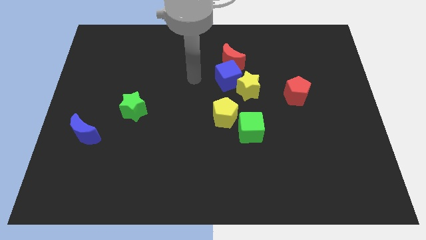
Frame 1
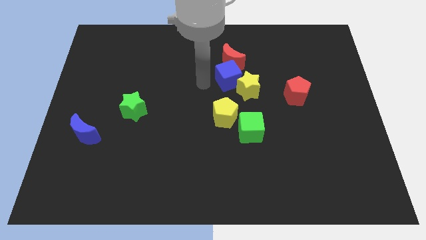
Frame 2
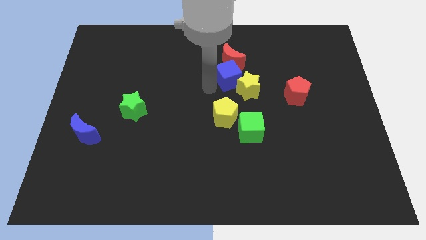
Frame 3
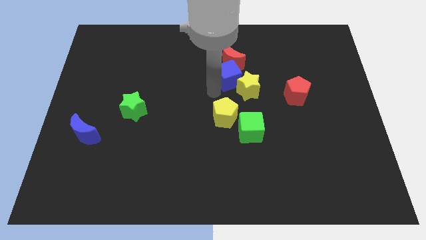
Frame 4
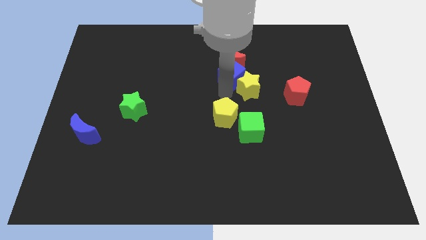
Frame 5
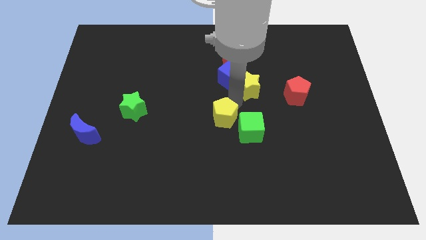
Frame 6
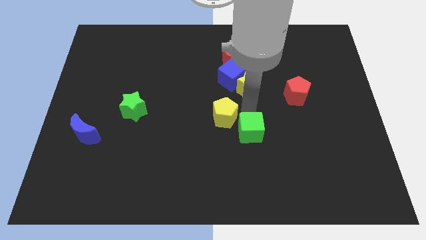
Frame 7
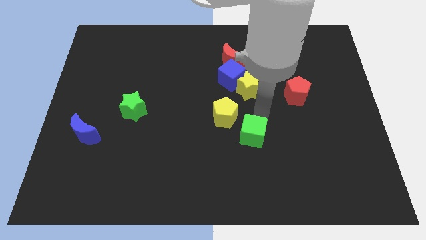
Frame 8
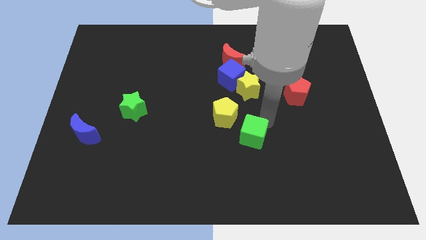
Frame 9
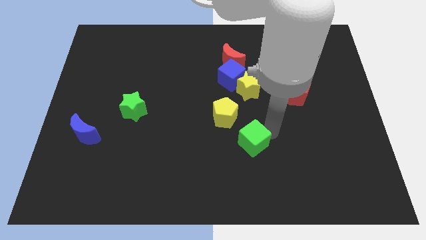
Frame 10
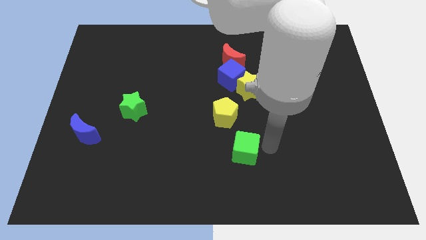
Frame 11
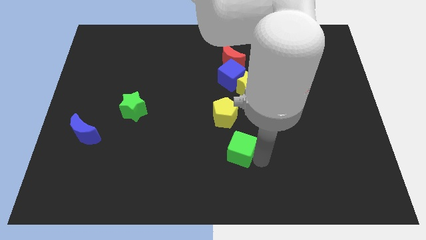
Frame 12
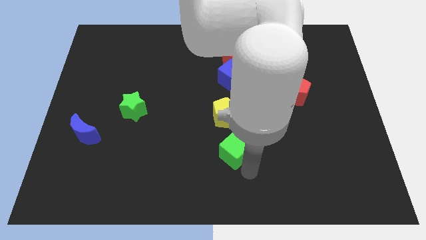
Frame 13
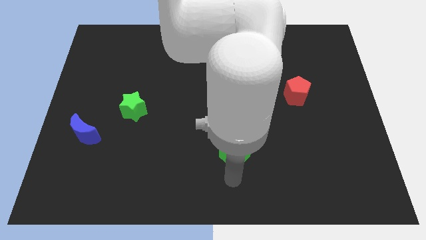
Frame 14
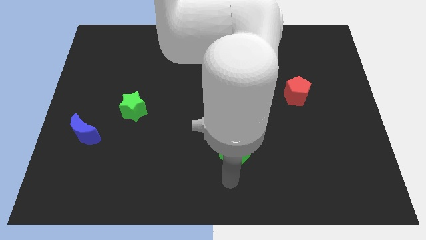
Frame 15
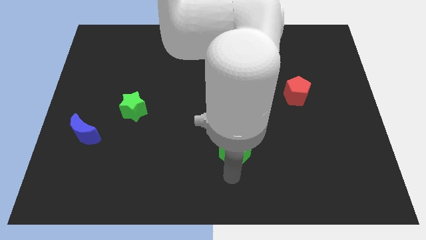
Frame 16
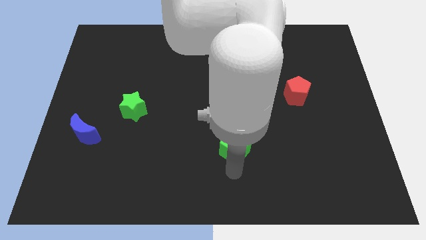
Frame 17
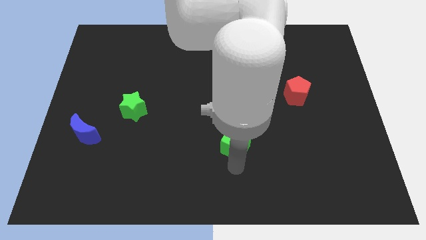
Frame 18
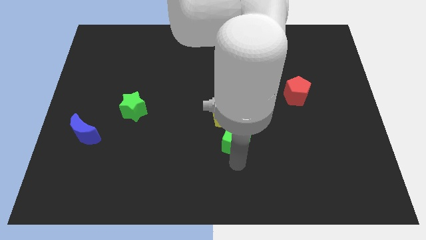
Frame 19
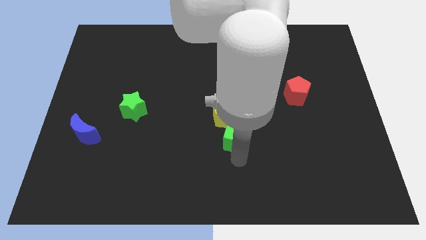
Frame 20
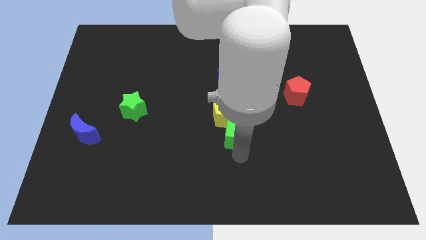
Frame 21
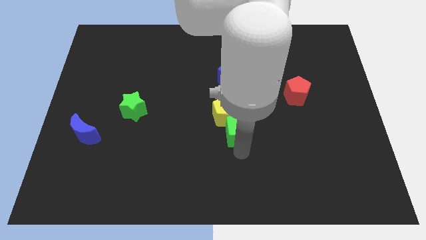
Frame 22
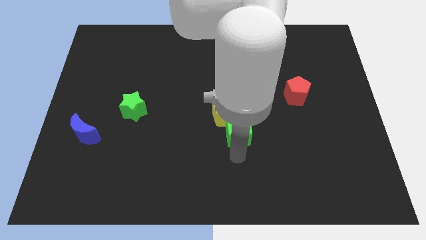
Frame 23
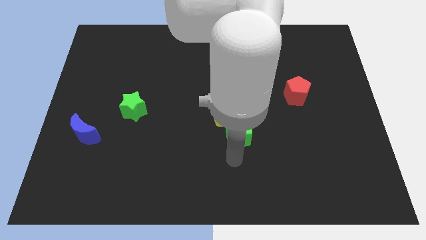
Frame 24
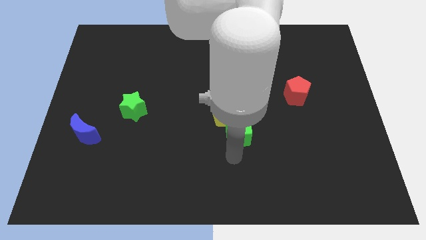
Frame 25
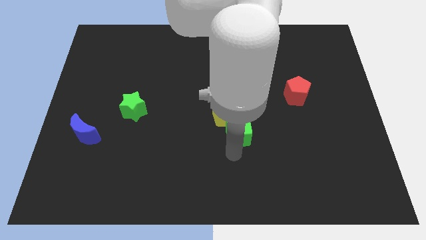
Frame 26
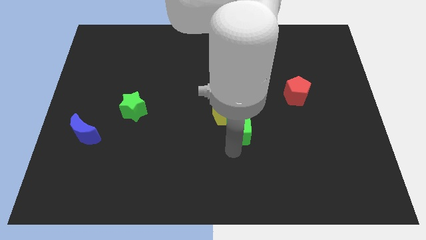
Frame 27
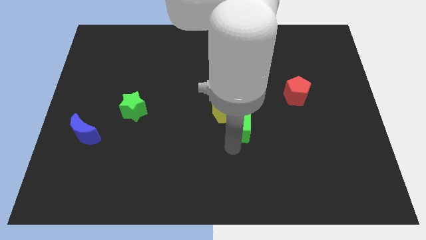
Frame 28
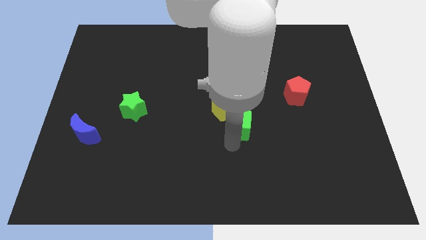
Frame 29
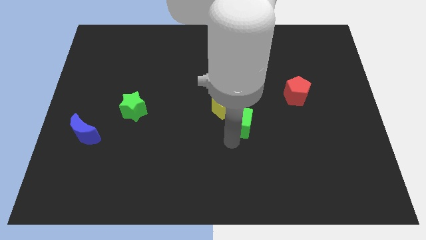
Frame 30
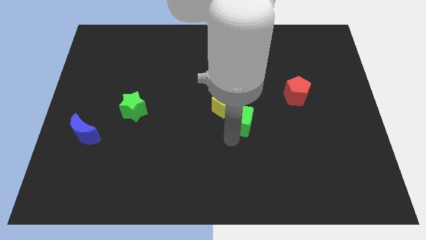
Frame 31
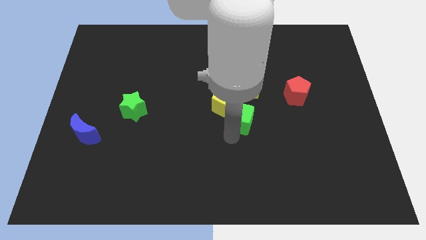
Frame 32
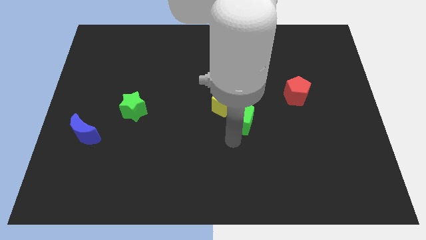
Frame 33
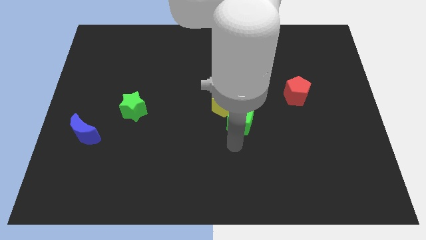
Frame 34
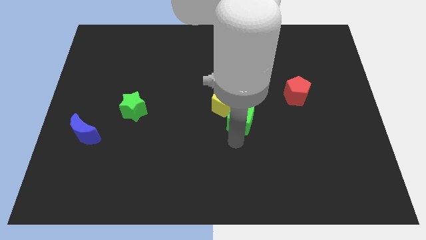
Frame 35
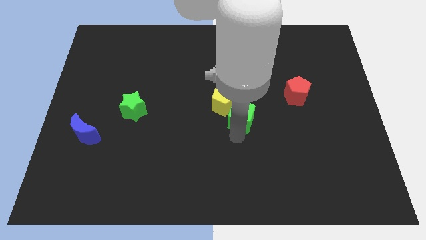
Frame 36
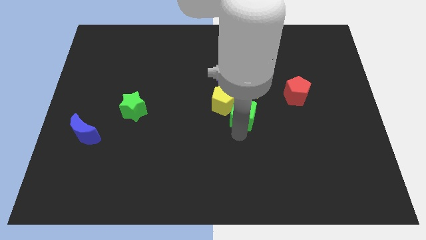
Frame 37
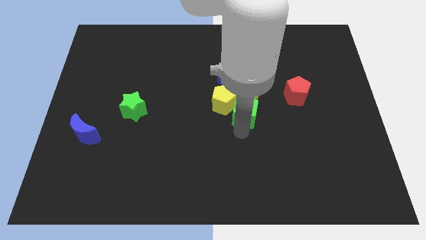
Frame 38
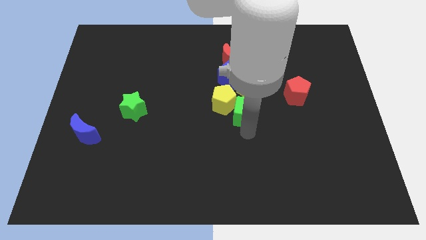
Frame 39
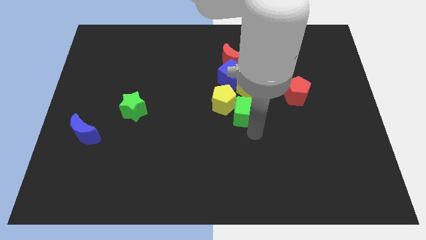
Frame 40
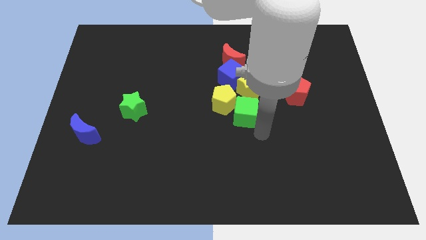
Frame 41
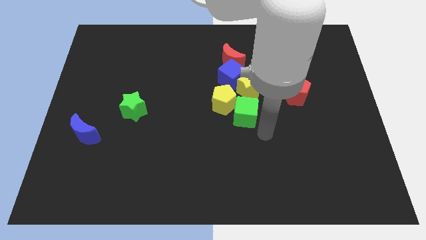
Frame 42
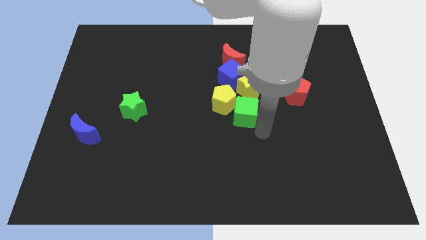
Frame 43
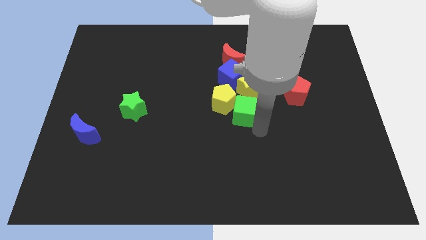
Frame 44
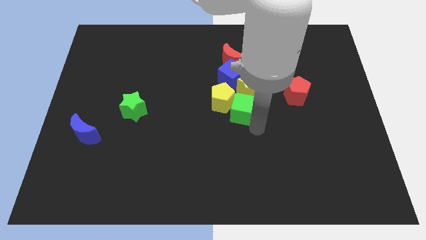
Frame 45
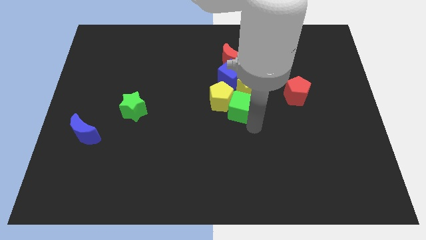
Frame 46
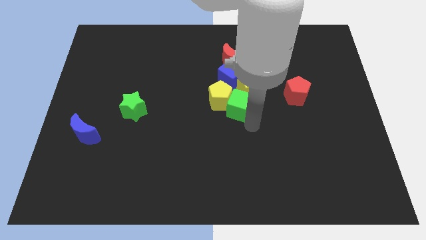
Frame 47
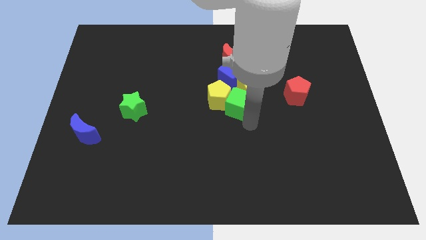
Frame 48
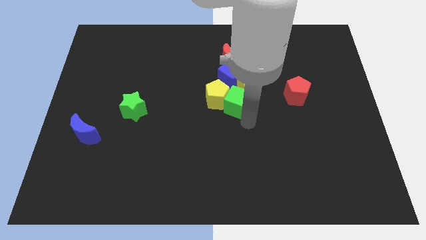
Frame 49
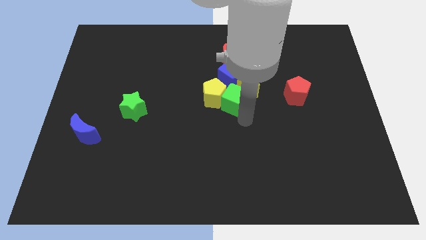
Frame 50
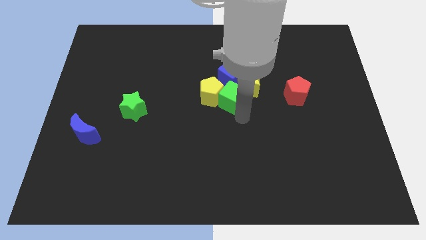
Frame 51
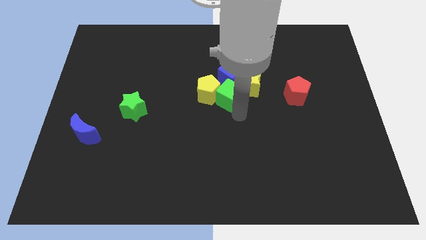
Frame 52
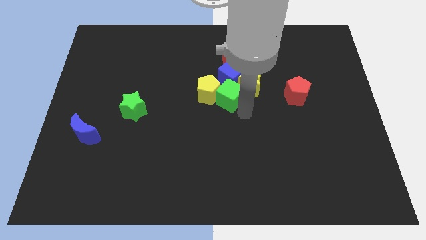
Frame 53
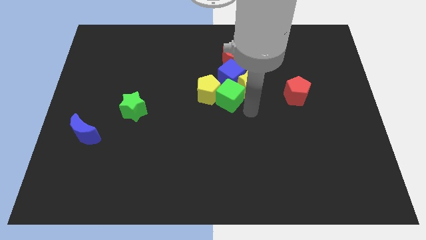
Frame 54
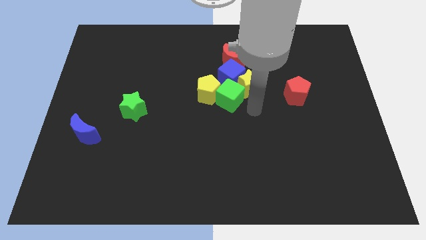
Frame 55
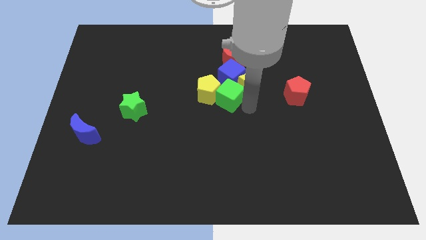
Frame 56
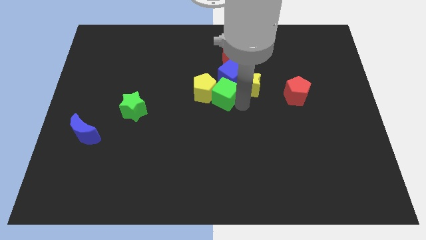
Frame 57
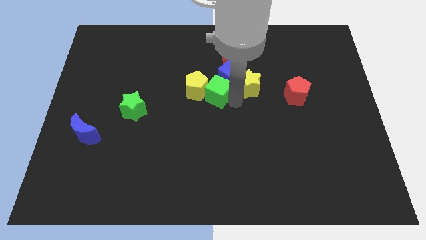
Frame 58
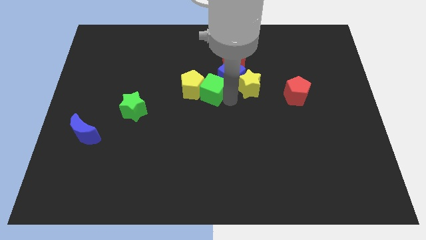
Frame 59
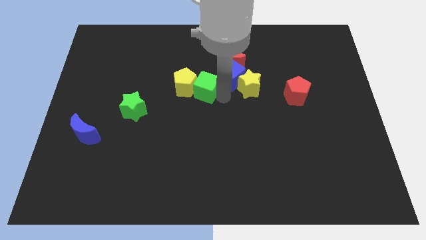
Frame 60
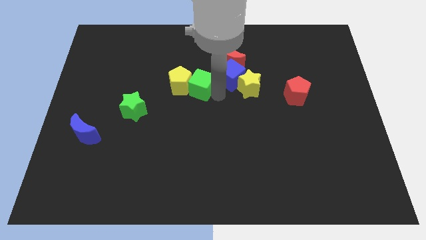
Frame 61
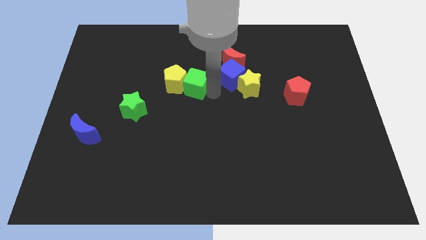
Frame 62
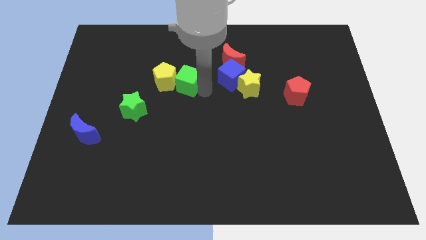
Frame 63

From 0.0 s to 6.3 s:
move the green cube diagonally upwards and to the left

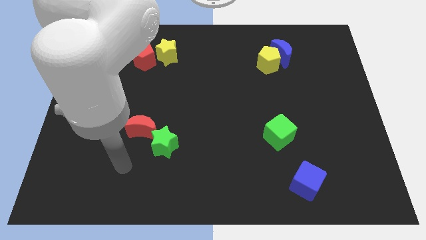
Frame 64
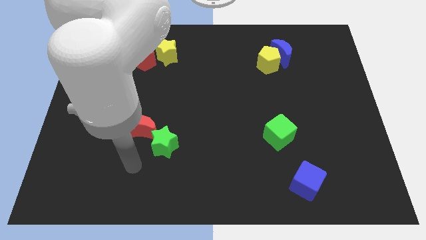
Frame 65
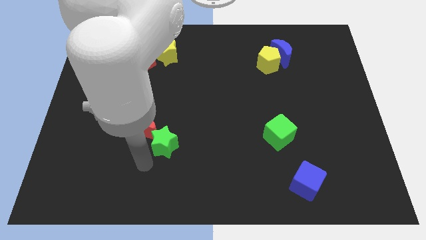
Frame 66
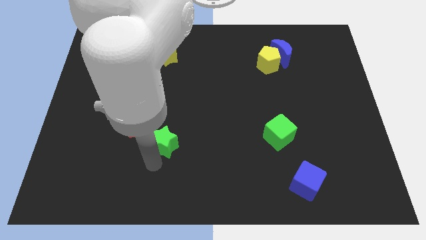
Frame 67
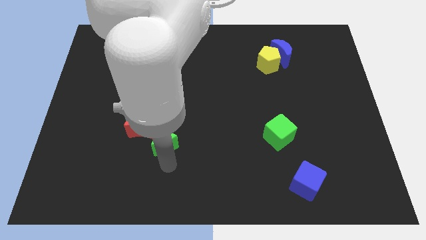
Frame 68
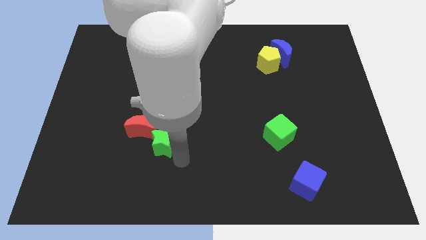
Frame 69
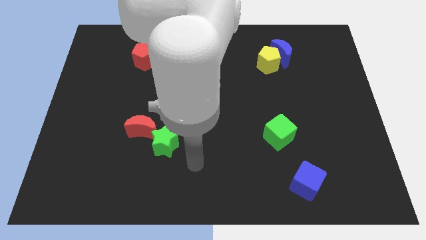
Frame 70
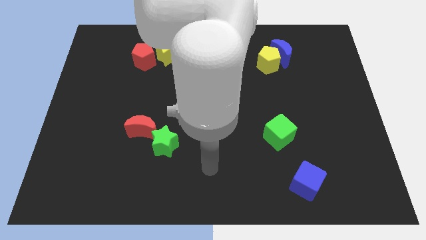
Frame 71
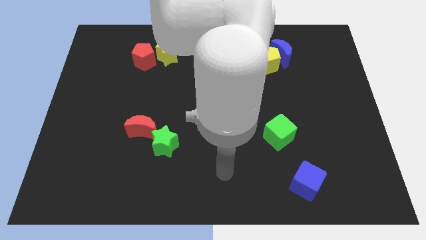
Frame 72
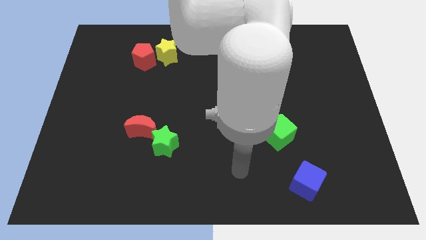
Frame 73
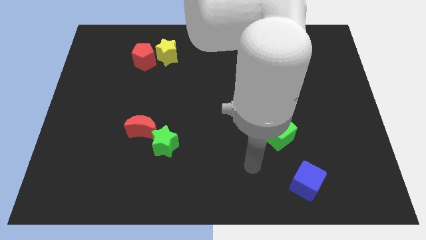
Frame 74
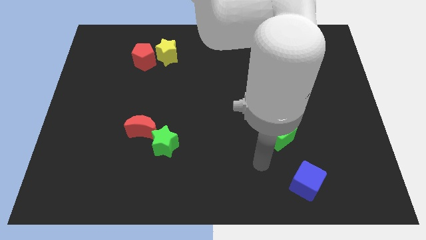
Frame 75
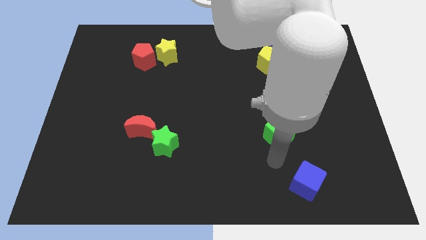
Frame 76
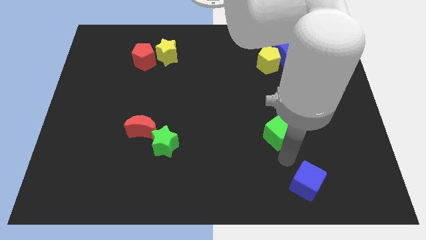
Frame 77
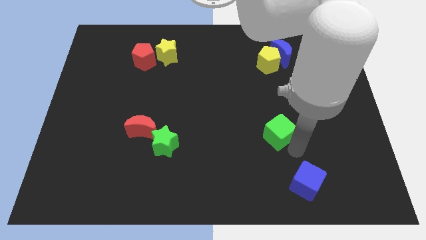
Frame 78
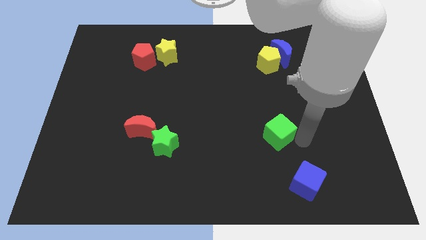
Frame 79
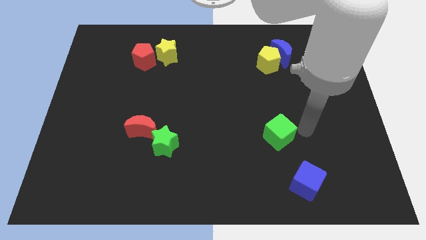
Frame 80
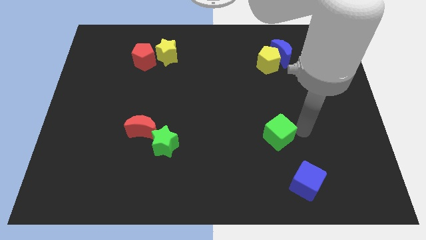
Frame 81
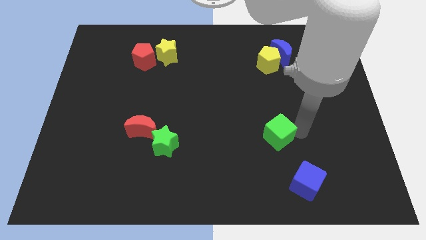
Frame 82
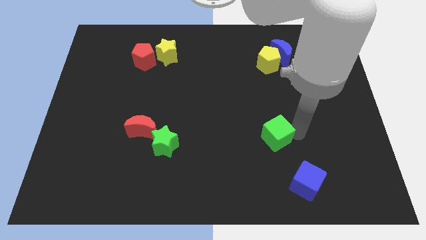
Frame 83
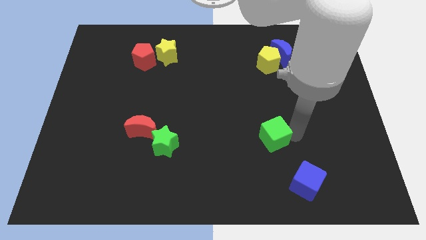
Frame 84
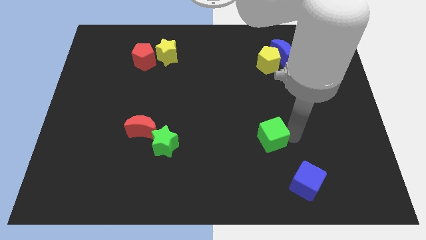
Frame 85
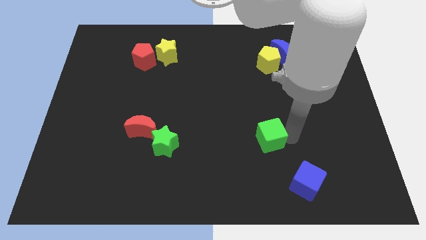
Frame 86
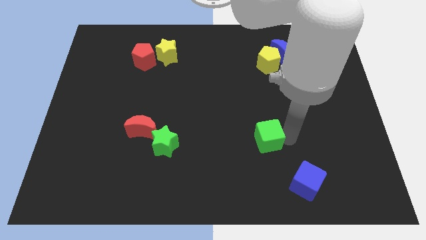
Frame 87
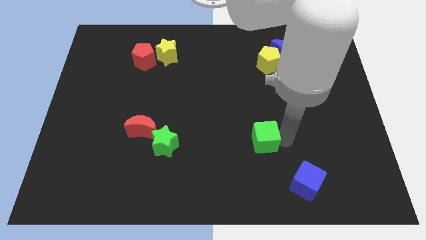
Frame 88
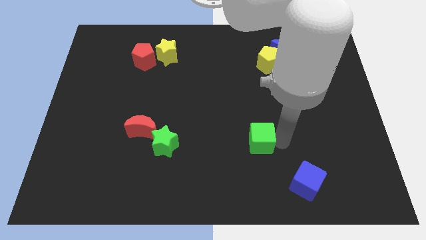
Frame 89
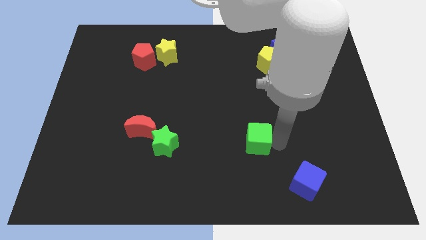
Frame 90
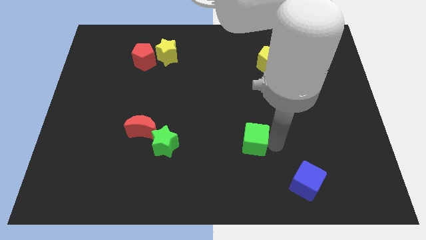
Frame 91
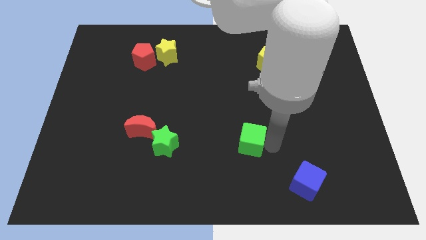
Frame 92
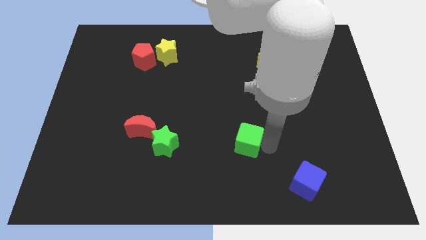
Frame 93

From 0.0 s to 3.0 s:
slide the green cube slightly left
